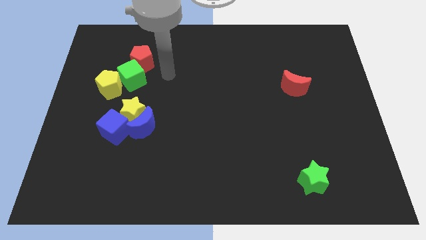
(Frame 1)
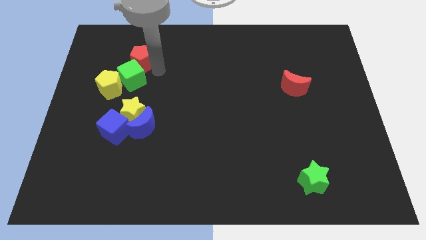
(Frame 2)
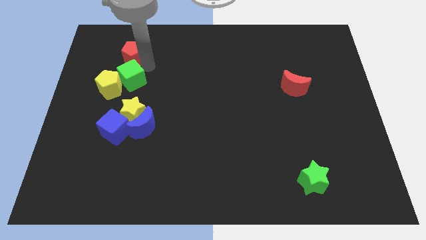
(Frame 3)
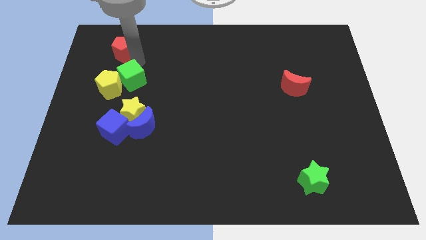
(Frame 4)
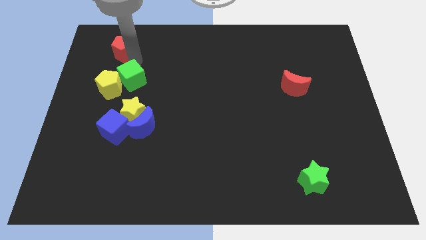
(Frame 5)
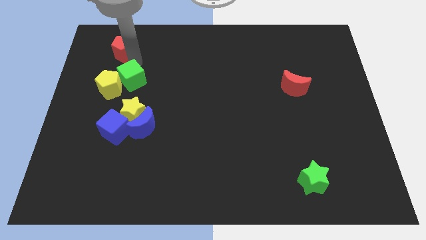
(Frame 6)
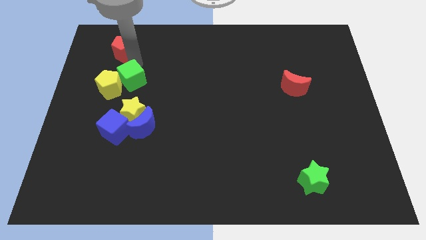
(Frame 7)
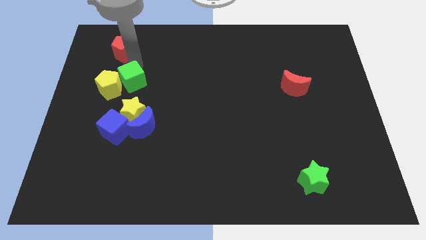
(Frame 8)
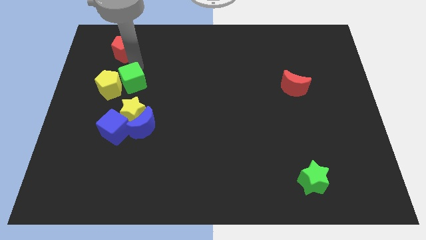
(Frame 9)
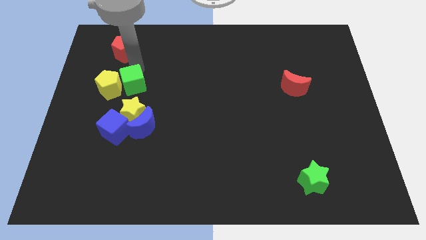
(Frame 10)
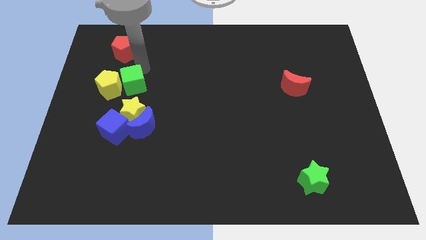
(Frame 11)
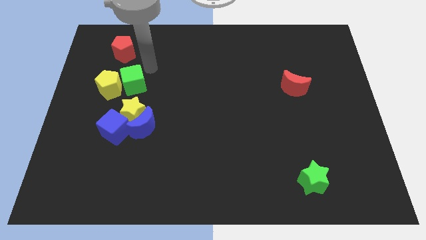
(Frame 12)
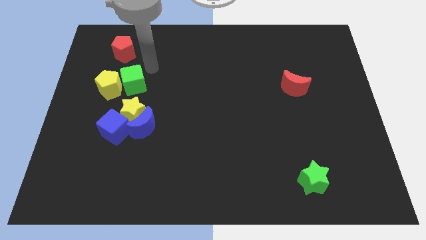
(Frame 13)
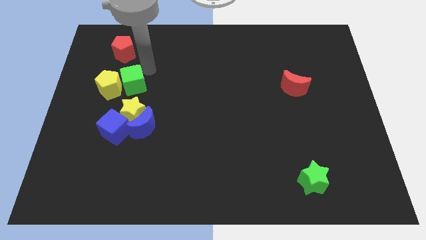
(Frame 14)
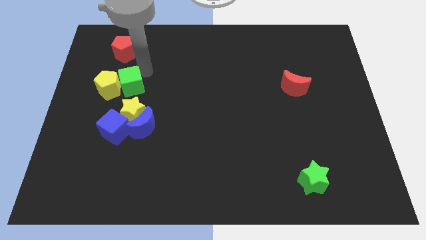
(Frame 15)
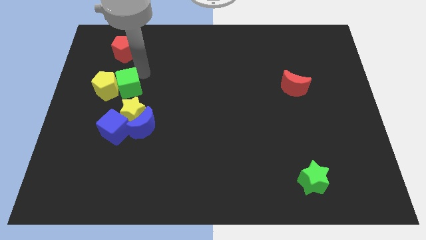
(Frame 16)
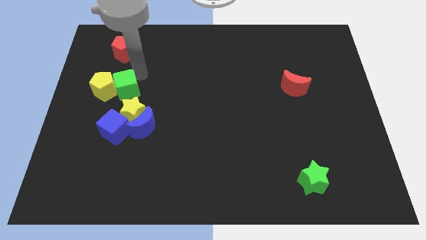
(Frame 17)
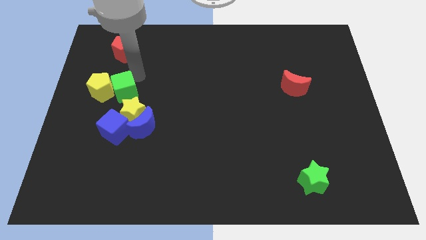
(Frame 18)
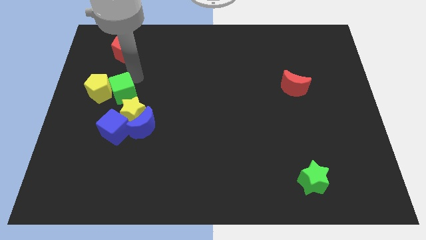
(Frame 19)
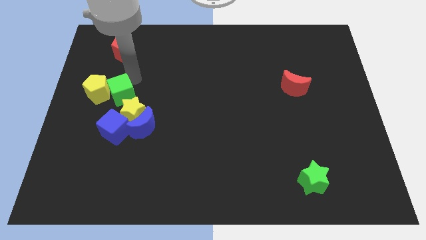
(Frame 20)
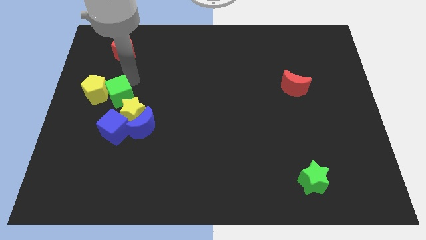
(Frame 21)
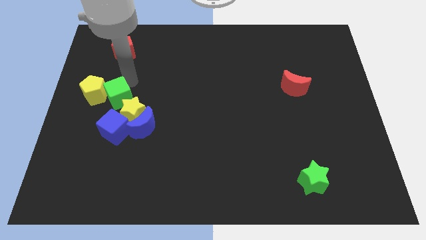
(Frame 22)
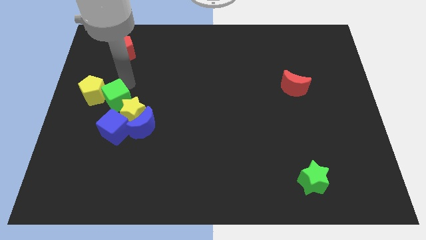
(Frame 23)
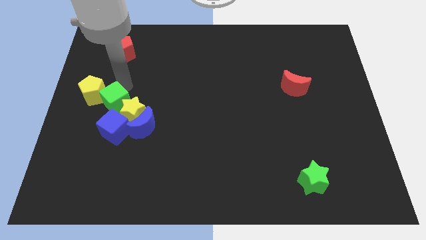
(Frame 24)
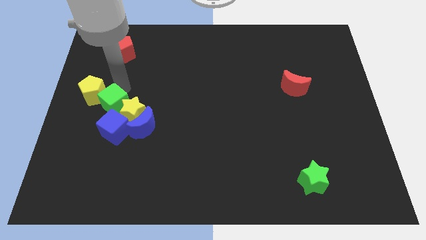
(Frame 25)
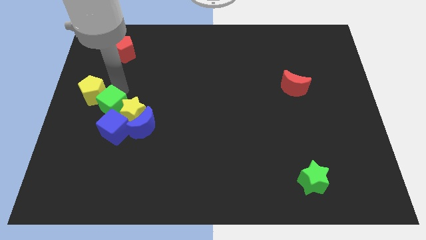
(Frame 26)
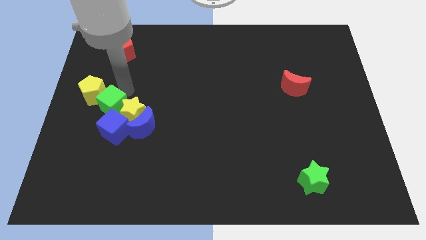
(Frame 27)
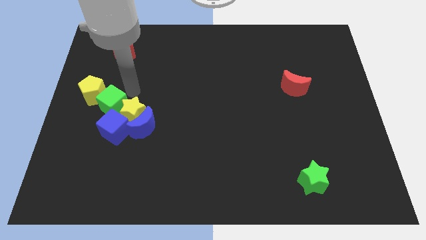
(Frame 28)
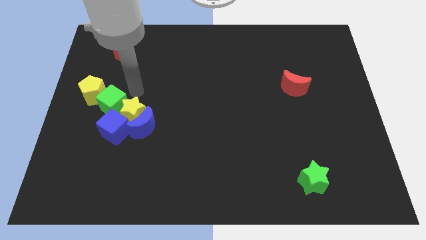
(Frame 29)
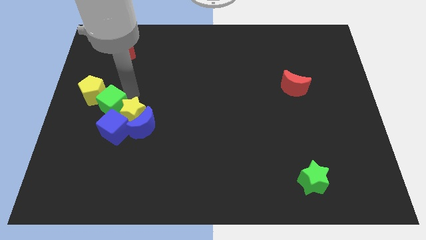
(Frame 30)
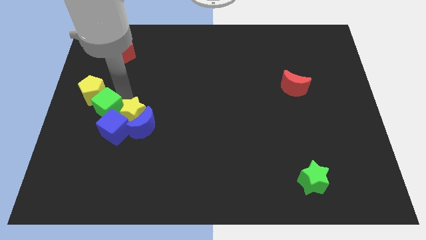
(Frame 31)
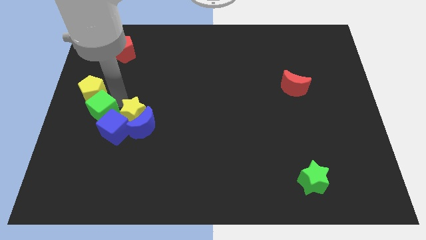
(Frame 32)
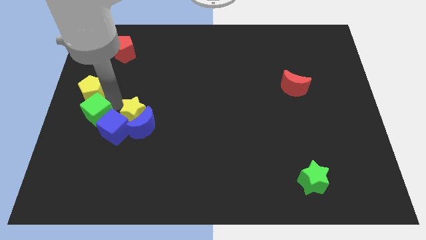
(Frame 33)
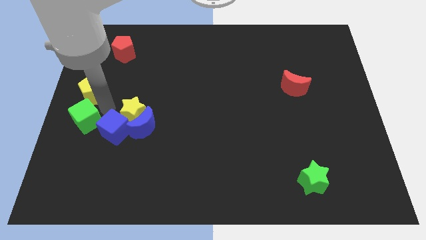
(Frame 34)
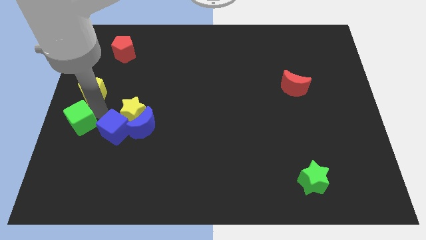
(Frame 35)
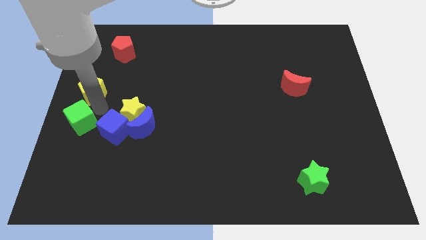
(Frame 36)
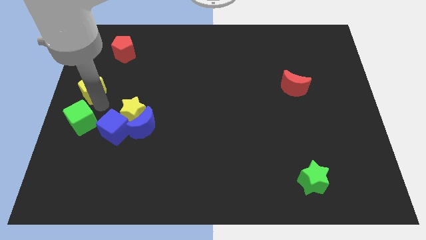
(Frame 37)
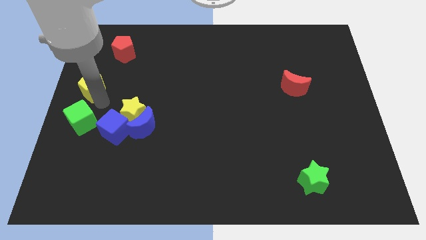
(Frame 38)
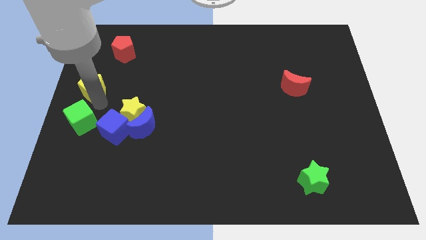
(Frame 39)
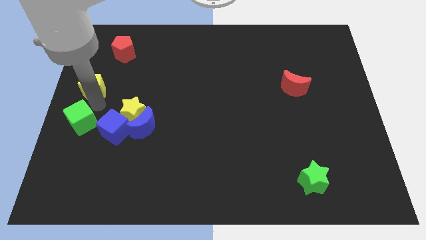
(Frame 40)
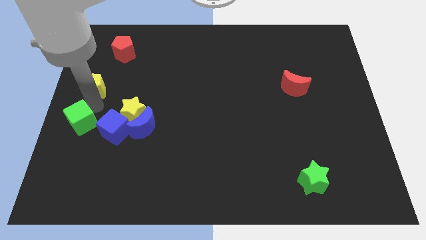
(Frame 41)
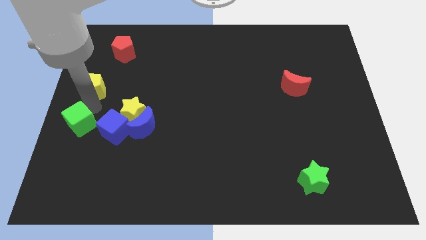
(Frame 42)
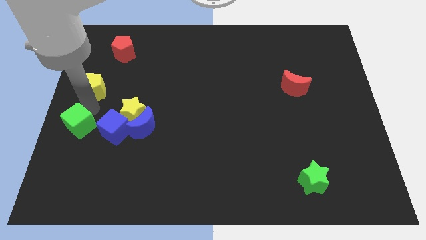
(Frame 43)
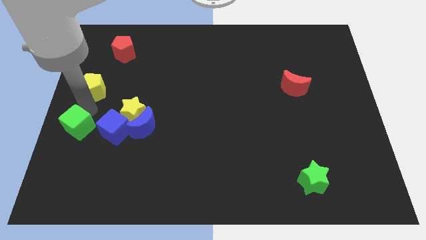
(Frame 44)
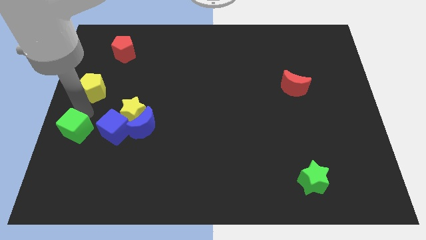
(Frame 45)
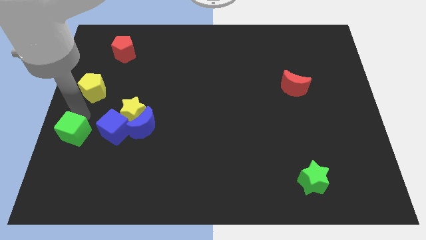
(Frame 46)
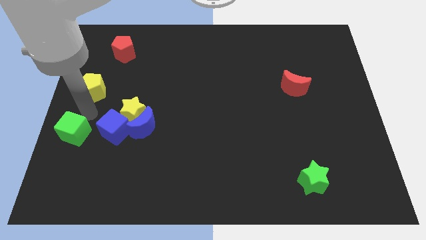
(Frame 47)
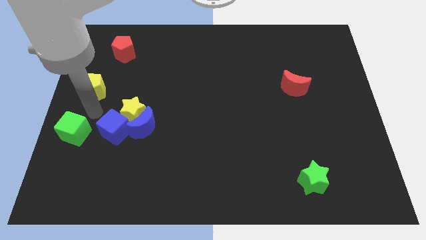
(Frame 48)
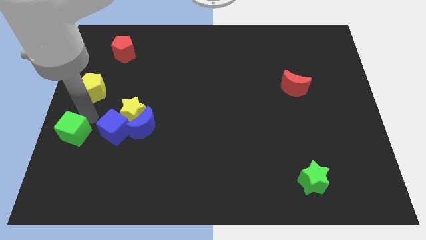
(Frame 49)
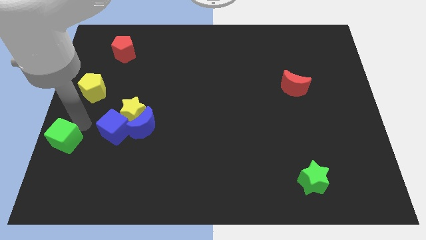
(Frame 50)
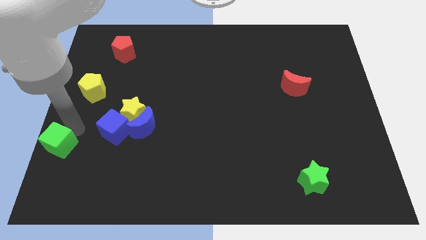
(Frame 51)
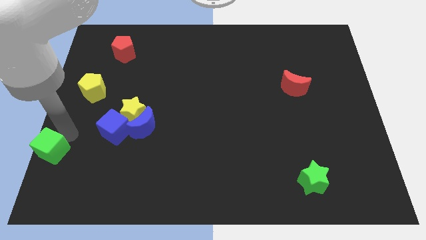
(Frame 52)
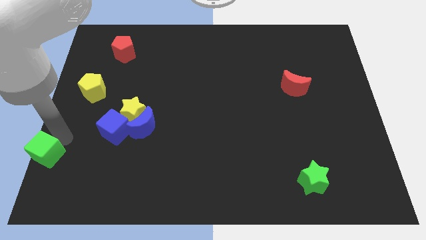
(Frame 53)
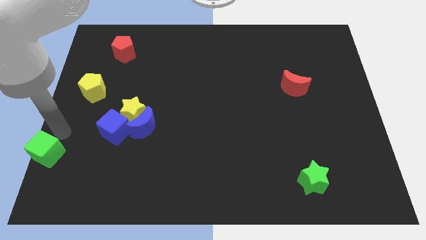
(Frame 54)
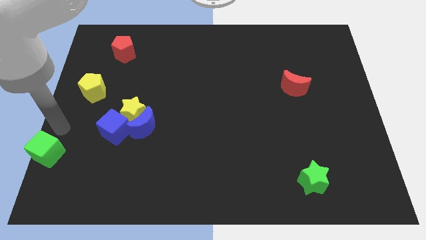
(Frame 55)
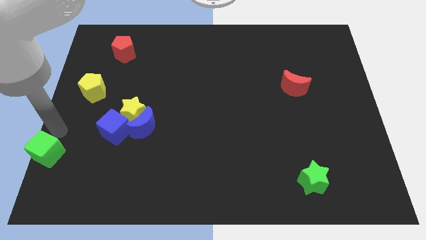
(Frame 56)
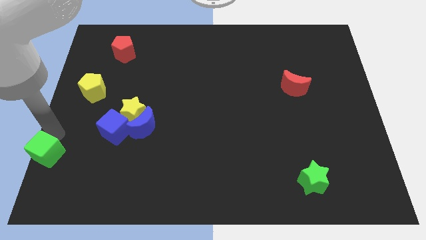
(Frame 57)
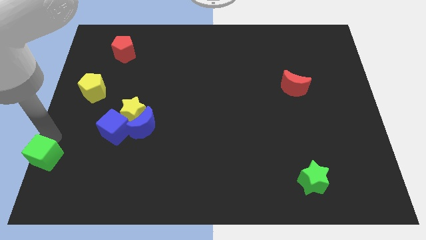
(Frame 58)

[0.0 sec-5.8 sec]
put the green cube to the bottom left corner
